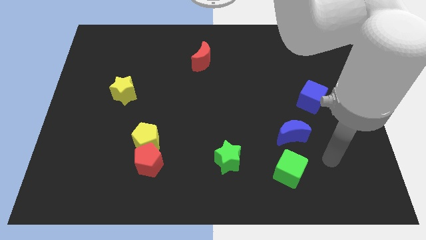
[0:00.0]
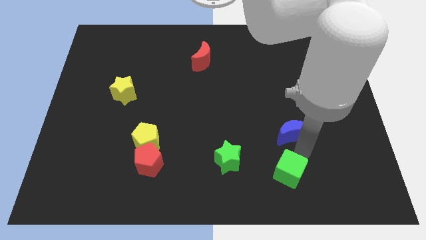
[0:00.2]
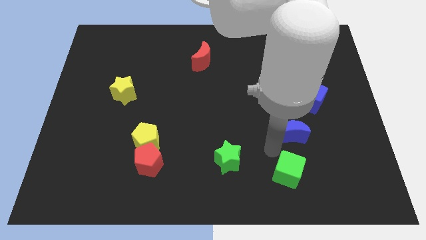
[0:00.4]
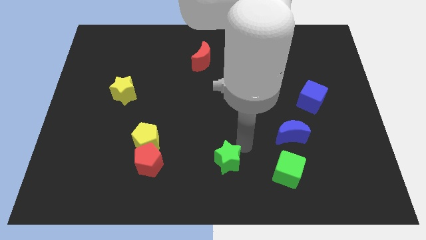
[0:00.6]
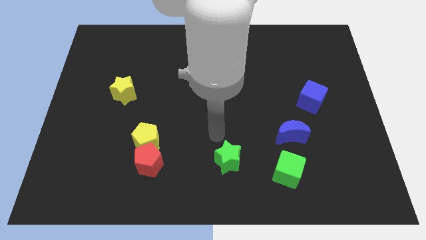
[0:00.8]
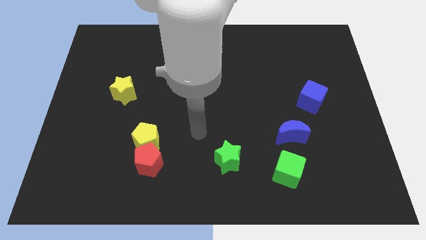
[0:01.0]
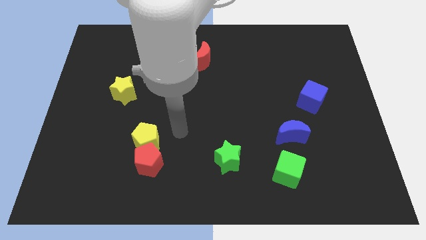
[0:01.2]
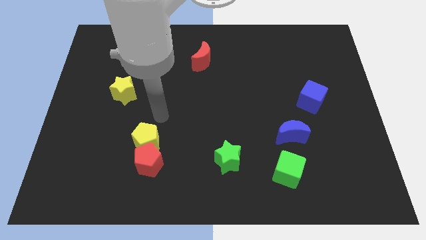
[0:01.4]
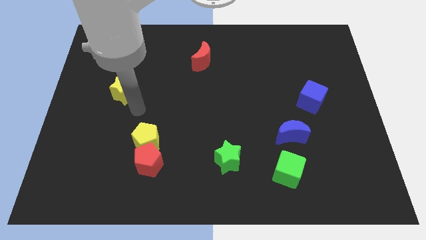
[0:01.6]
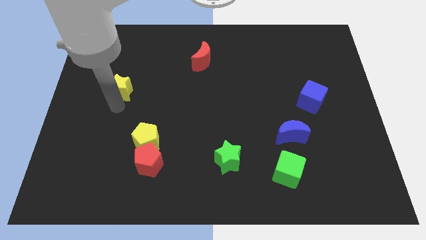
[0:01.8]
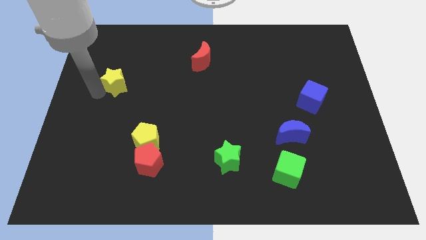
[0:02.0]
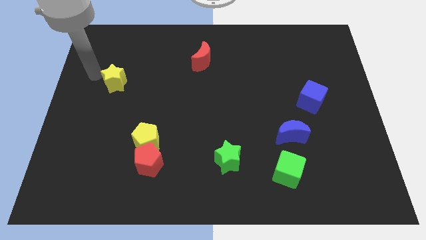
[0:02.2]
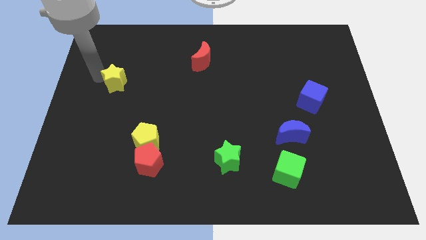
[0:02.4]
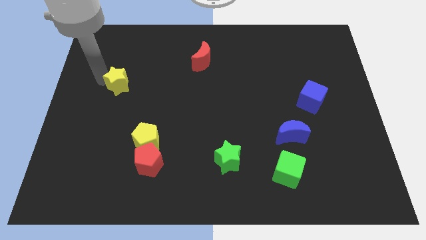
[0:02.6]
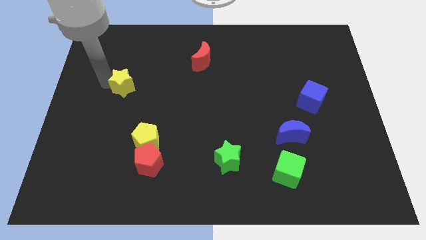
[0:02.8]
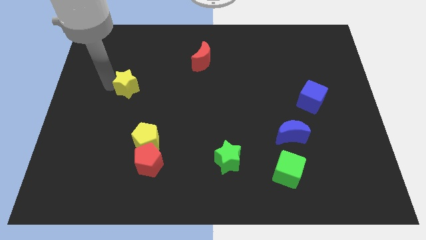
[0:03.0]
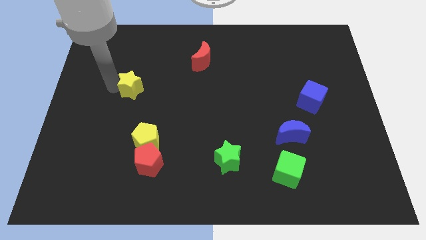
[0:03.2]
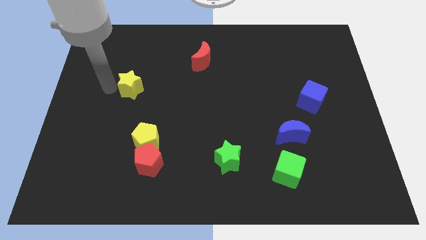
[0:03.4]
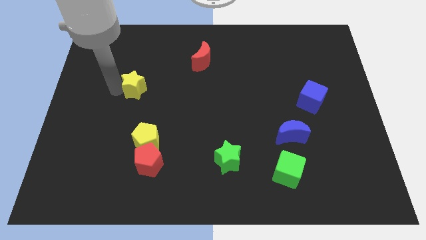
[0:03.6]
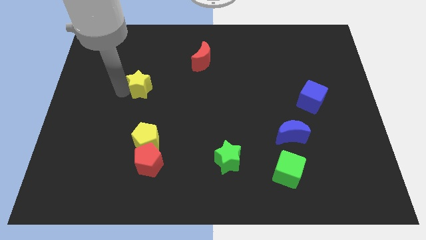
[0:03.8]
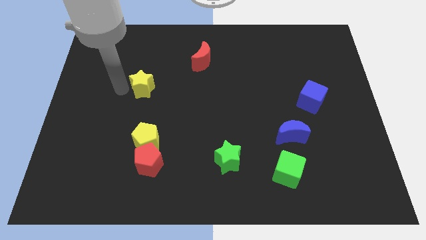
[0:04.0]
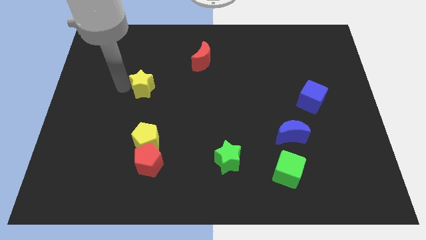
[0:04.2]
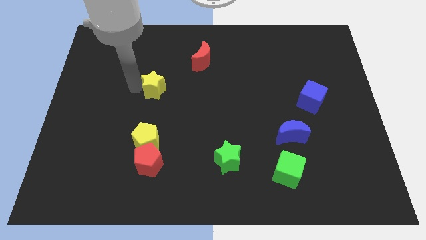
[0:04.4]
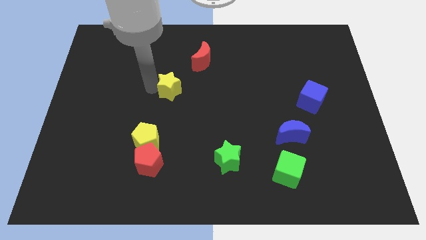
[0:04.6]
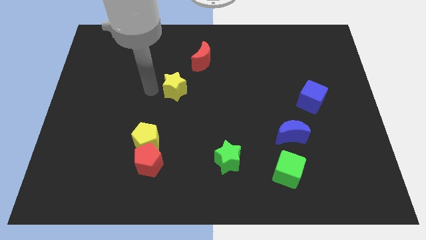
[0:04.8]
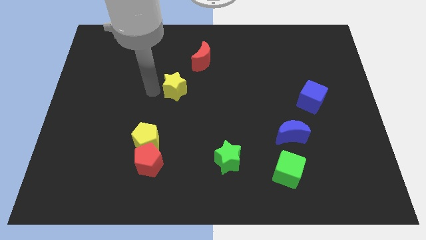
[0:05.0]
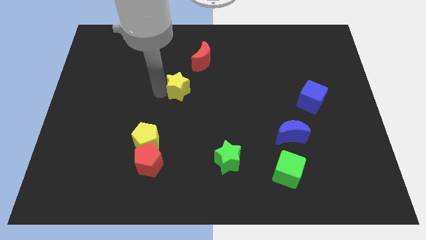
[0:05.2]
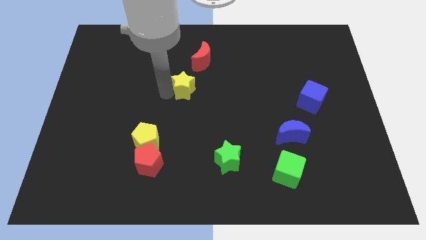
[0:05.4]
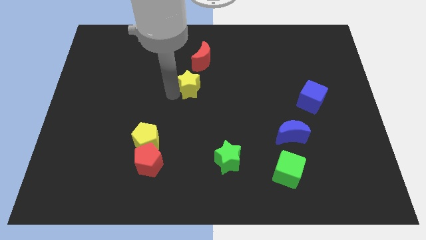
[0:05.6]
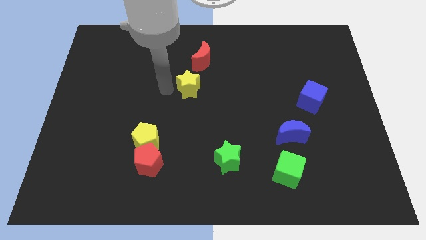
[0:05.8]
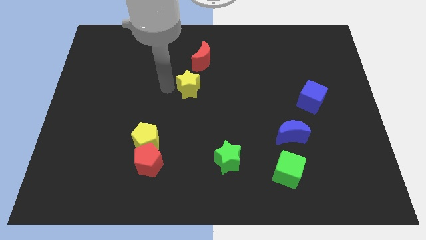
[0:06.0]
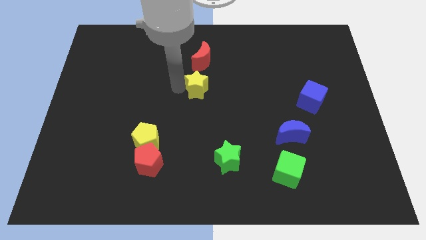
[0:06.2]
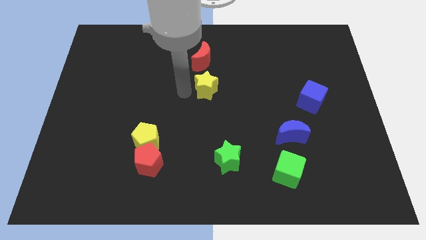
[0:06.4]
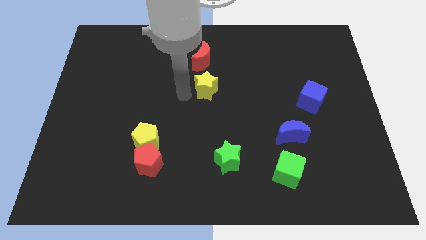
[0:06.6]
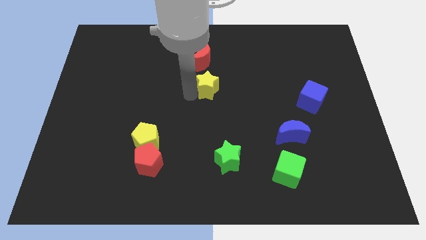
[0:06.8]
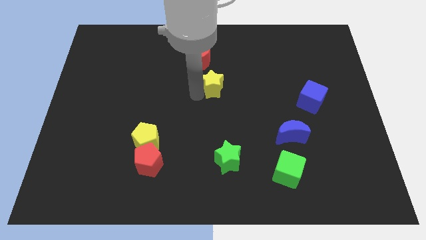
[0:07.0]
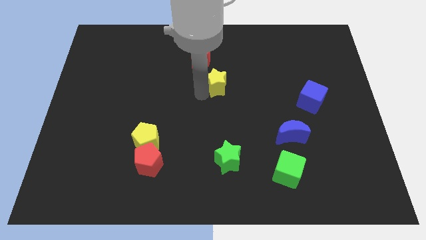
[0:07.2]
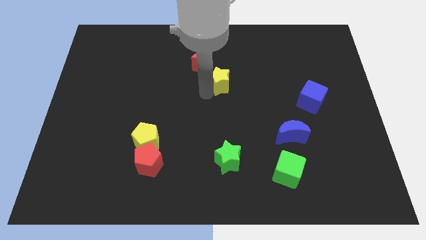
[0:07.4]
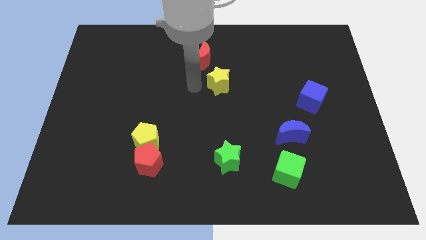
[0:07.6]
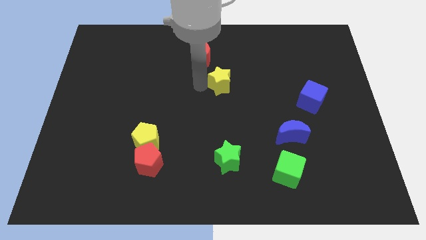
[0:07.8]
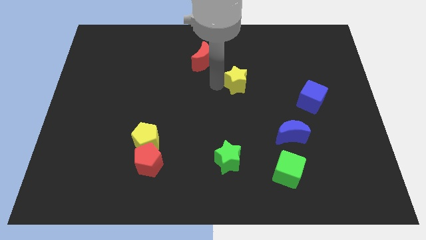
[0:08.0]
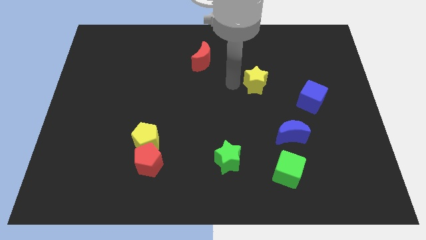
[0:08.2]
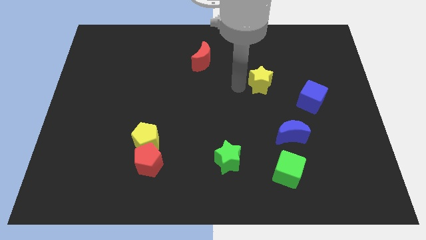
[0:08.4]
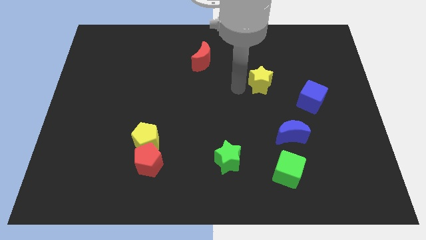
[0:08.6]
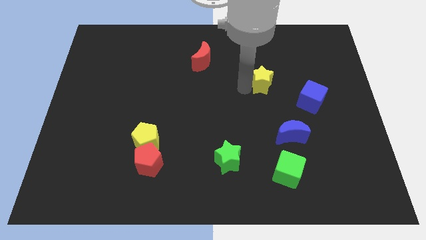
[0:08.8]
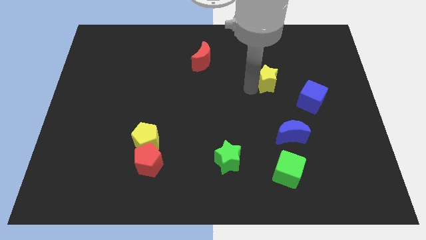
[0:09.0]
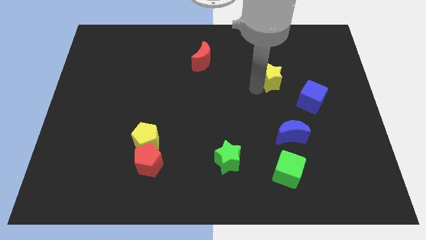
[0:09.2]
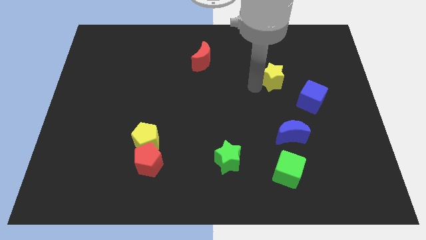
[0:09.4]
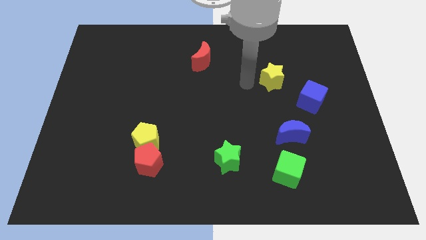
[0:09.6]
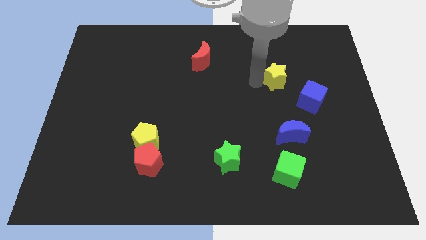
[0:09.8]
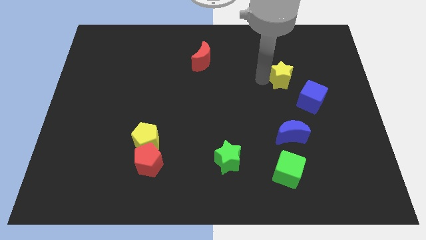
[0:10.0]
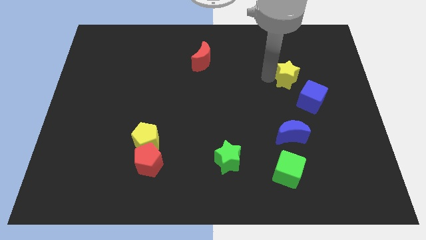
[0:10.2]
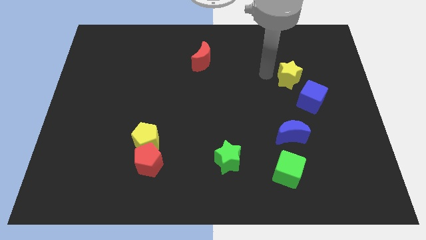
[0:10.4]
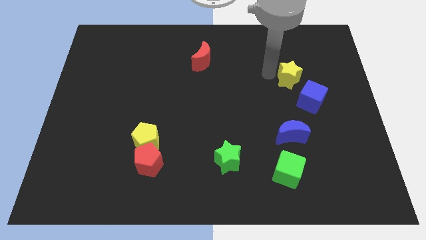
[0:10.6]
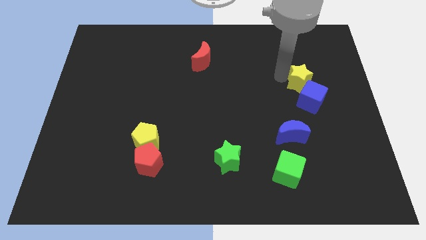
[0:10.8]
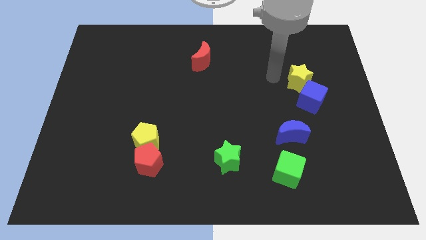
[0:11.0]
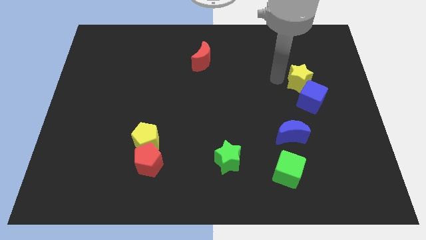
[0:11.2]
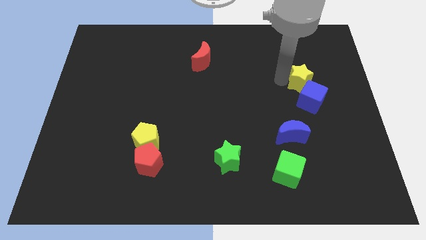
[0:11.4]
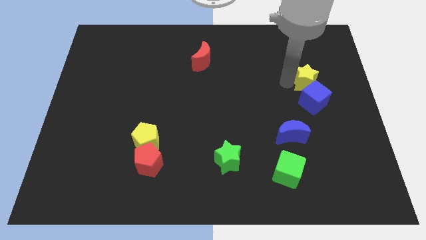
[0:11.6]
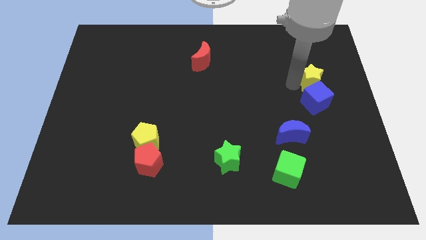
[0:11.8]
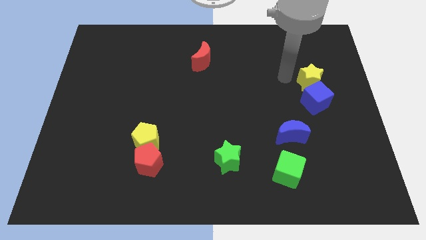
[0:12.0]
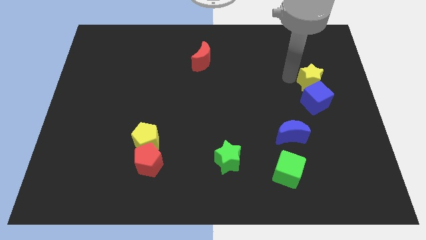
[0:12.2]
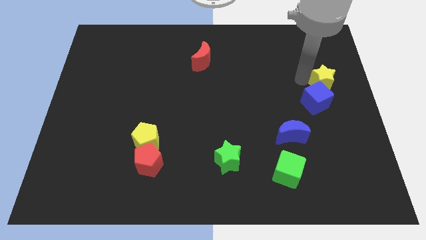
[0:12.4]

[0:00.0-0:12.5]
slide the yellow star to the center right
